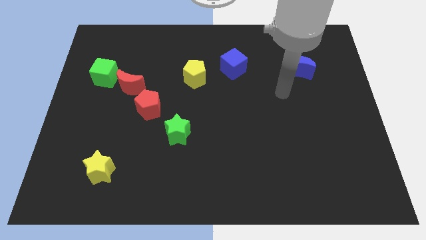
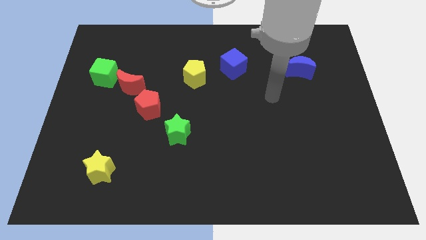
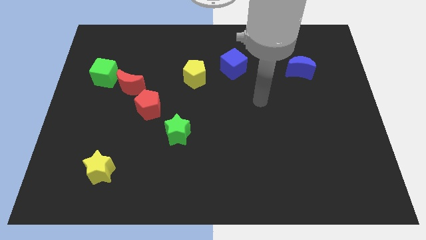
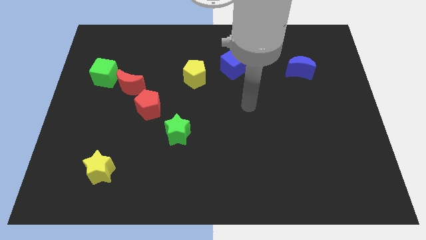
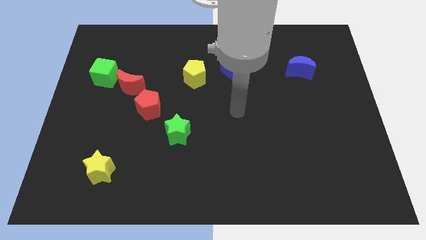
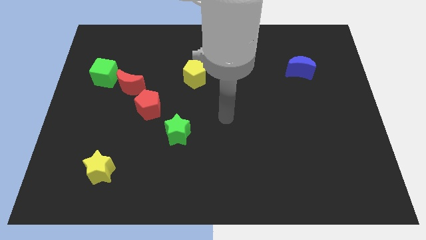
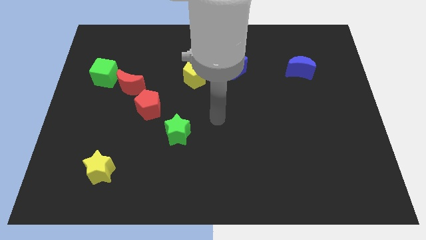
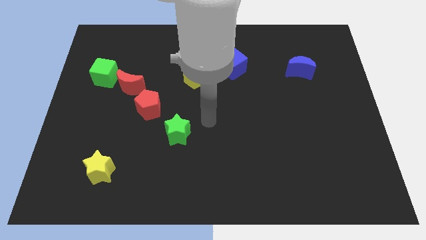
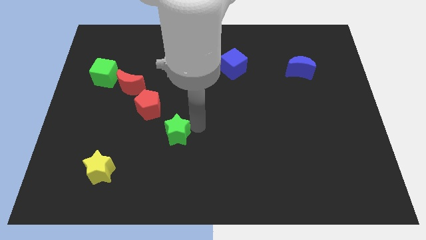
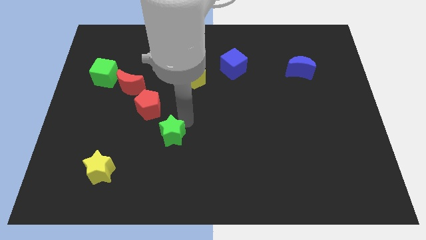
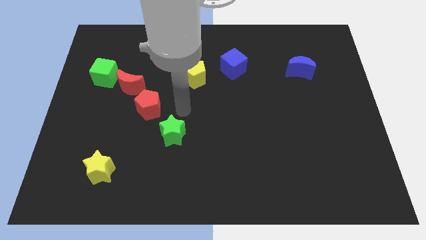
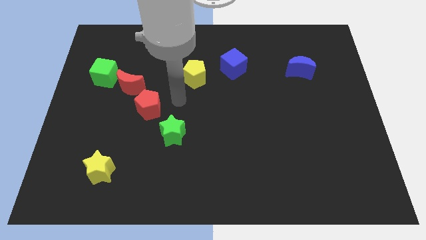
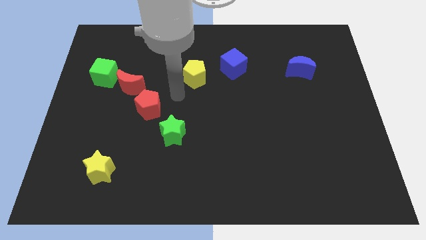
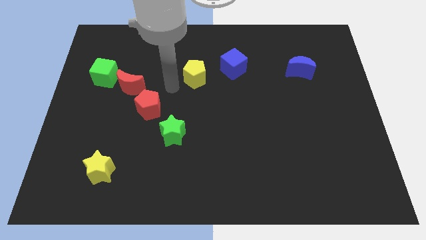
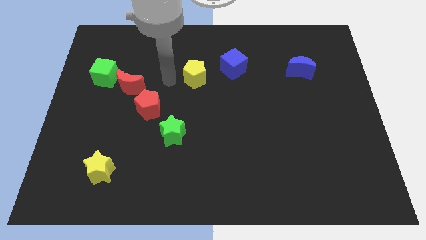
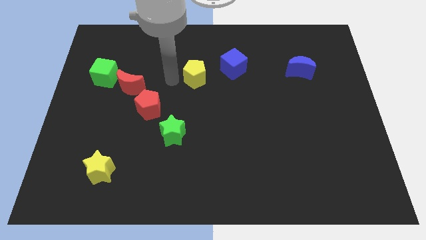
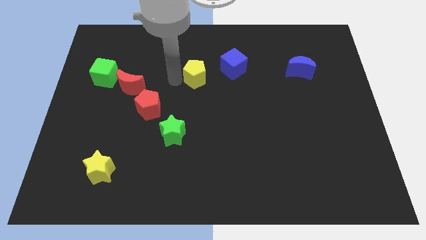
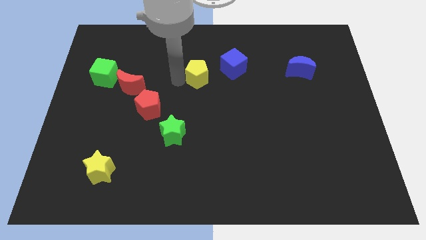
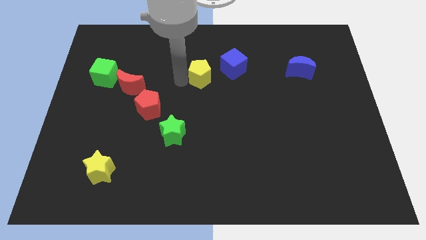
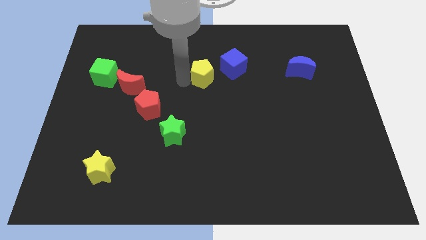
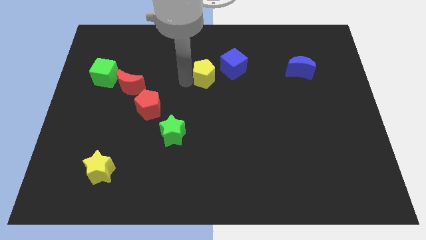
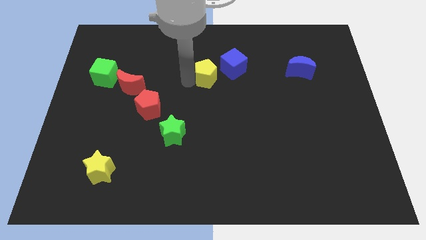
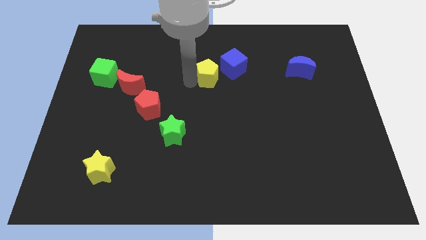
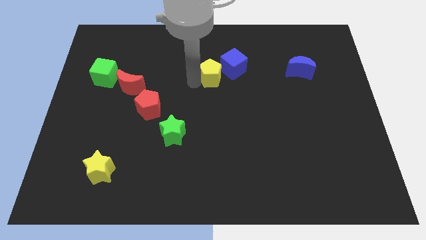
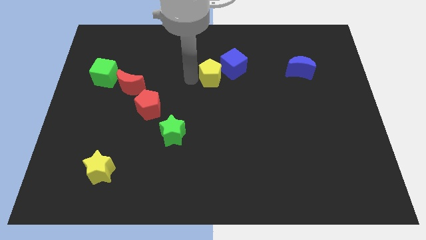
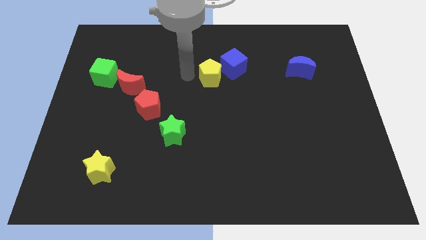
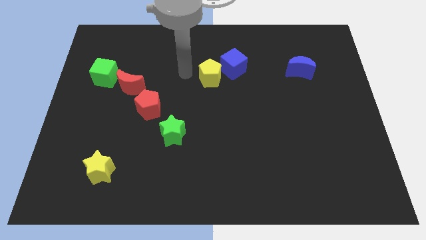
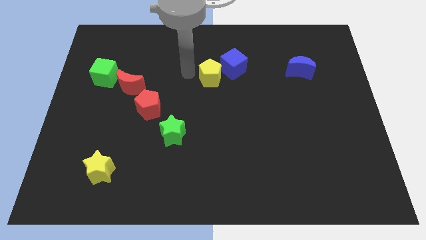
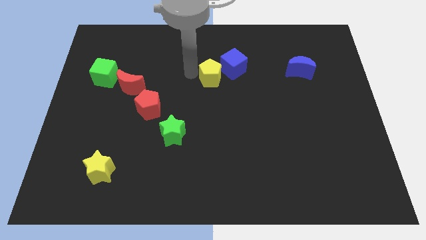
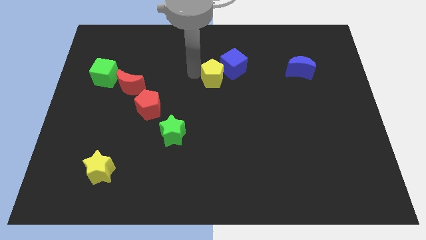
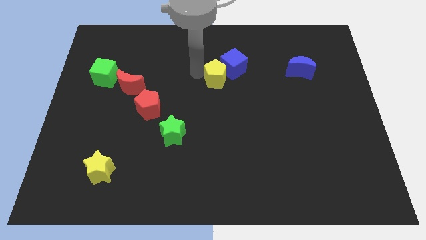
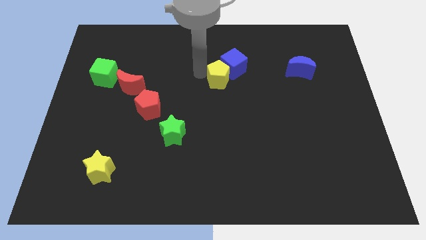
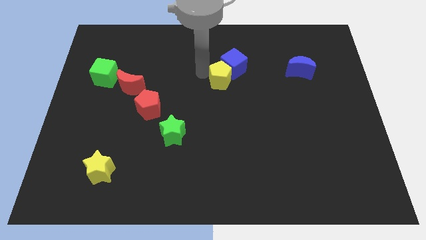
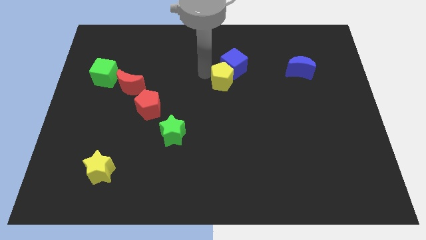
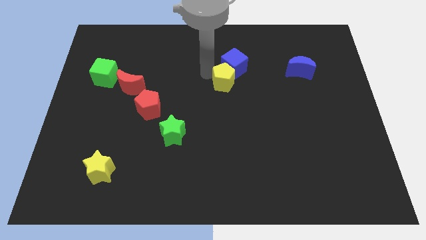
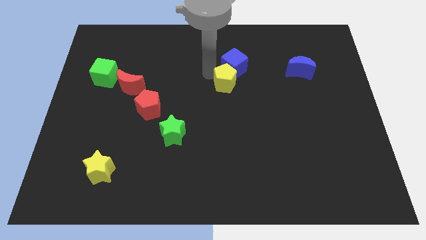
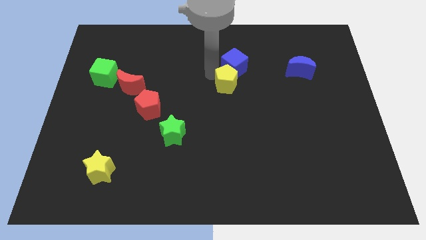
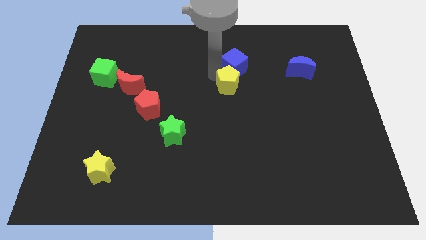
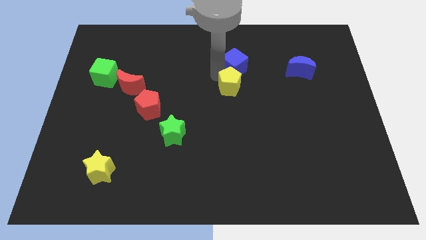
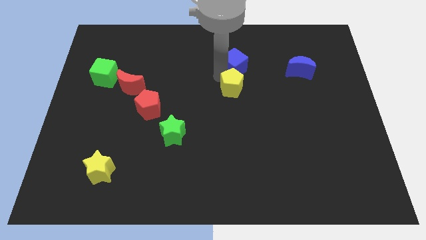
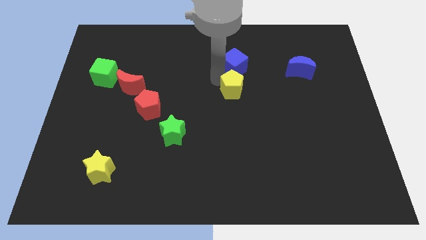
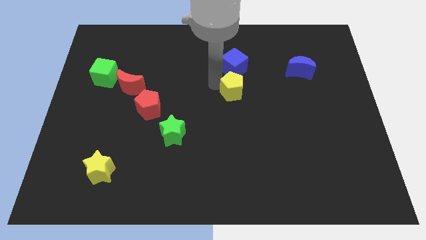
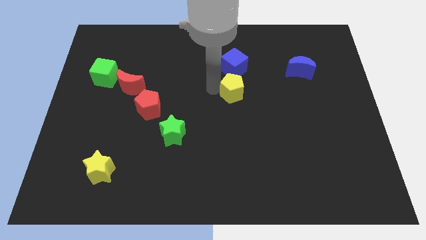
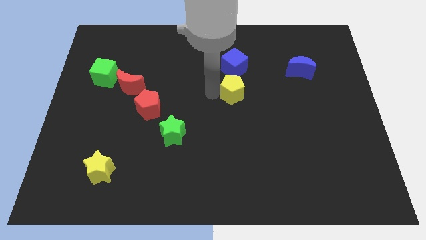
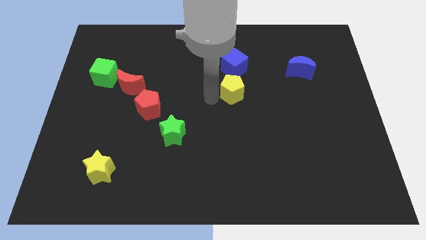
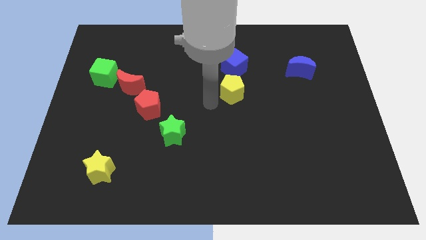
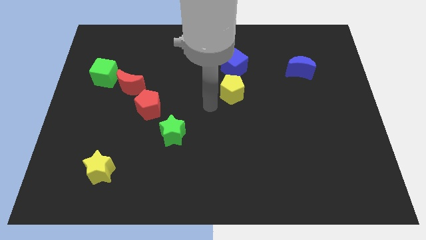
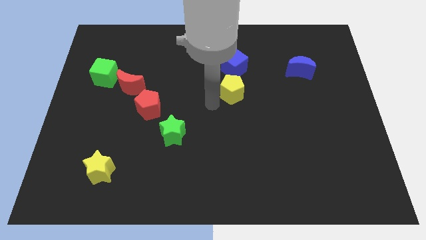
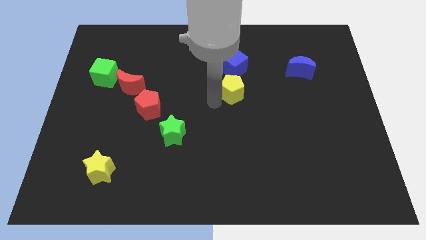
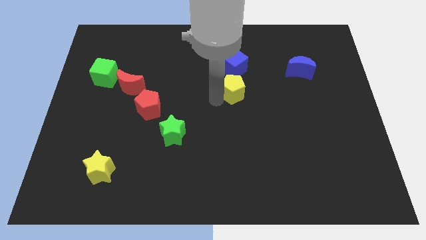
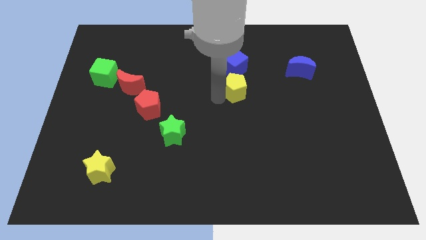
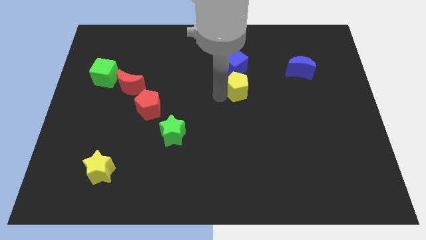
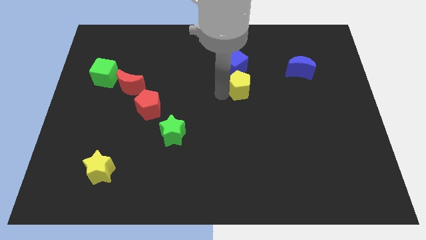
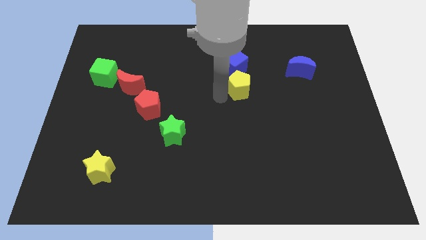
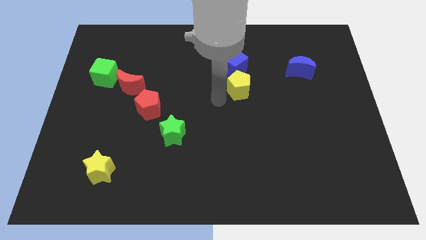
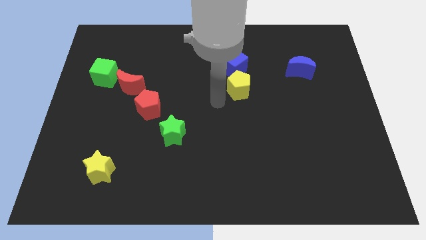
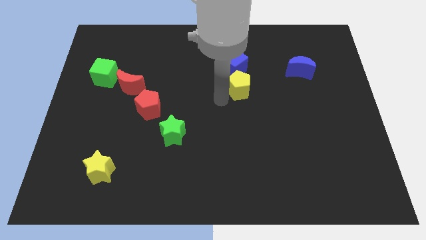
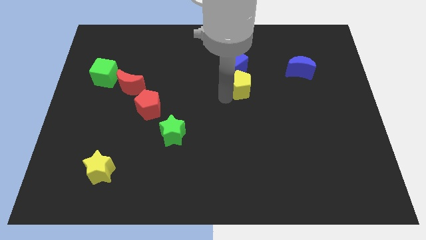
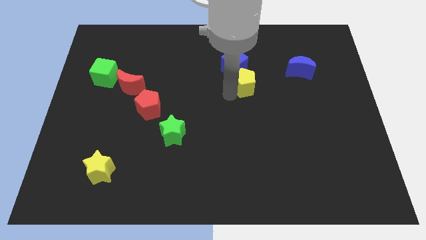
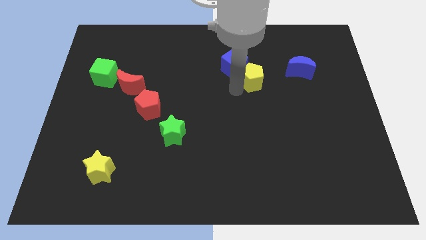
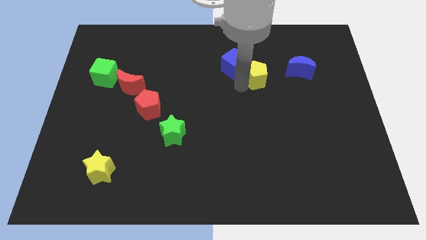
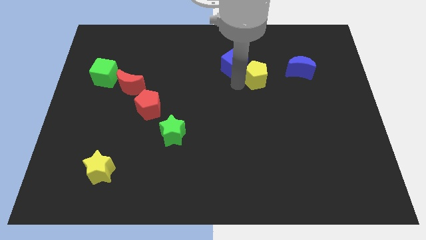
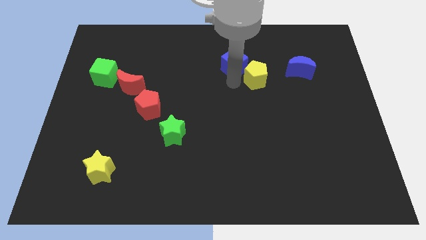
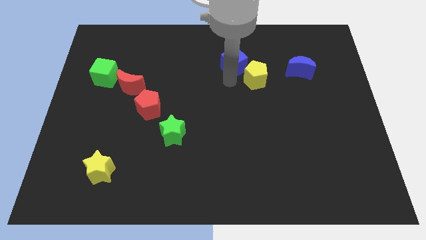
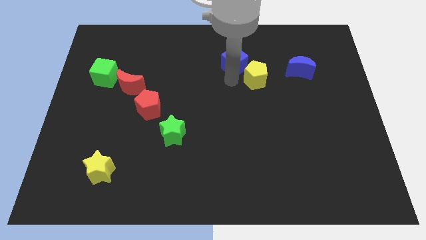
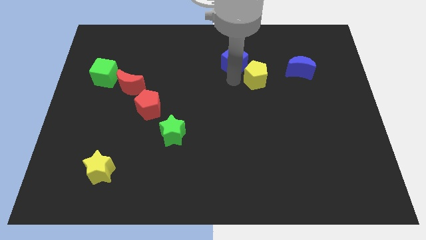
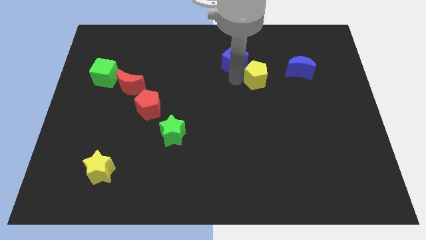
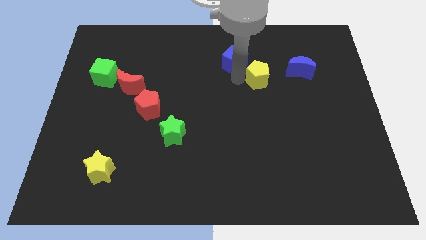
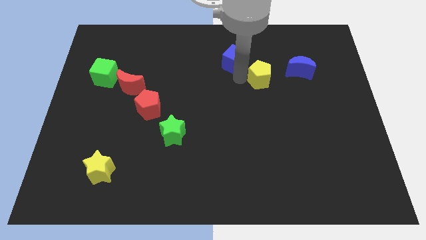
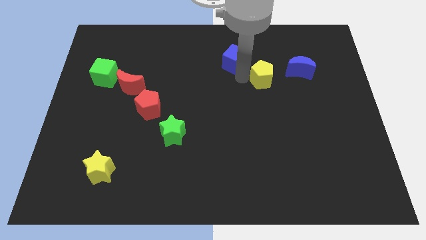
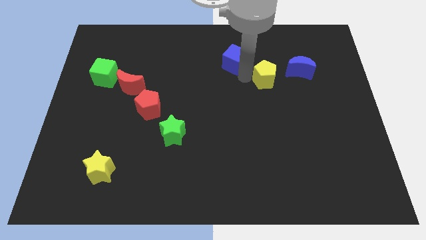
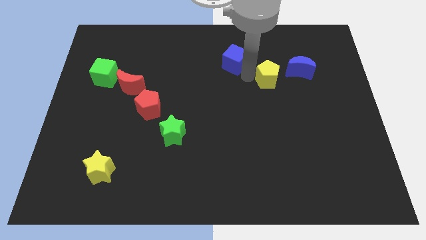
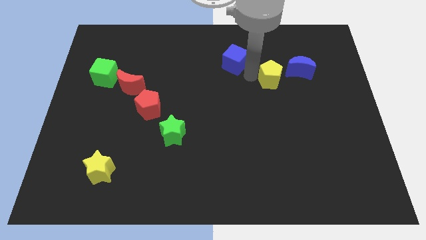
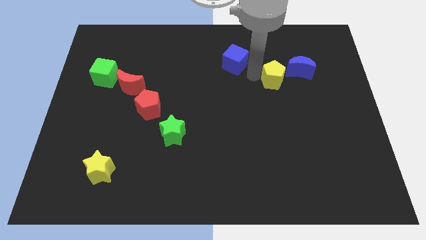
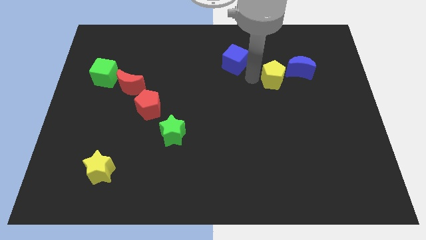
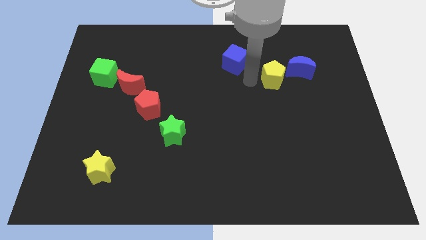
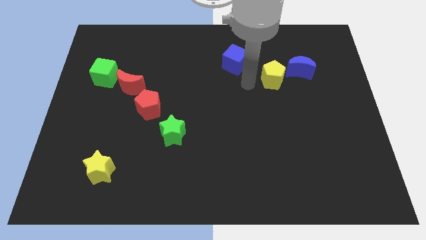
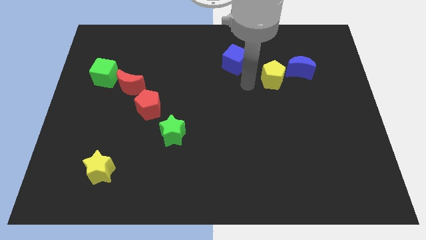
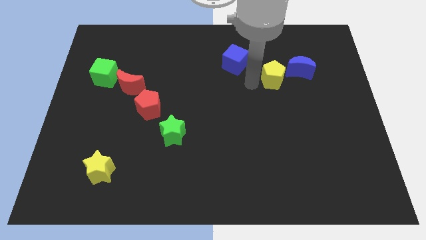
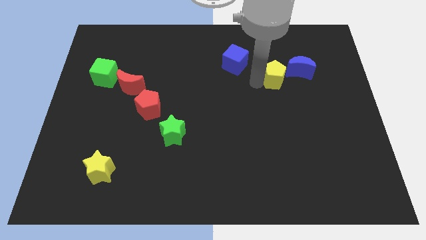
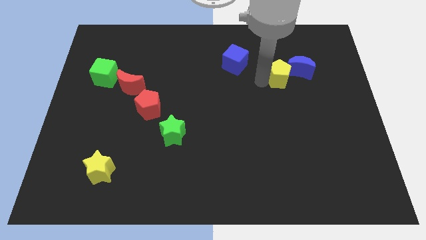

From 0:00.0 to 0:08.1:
put the yellow pentagon next to the blue moon
